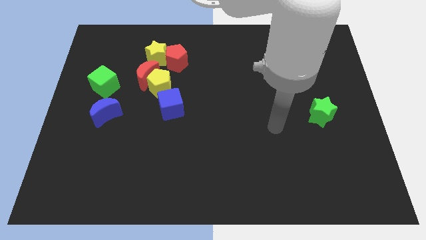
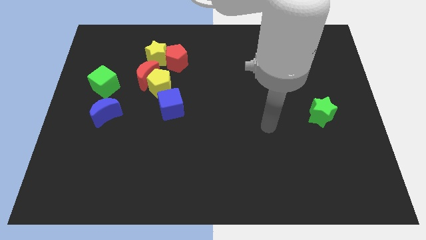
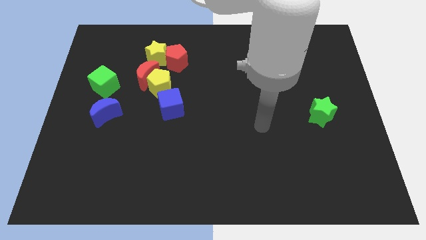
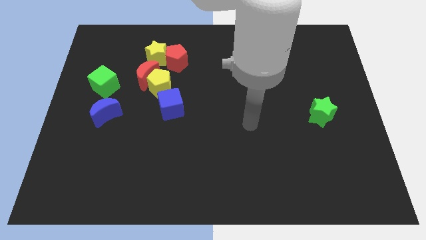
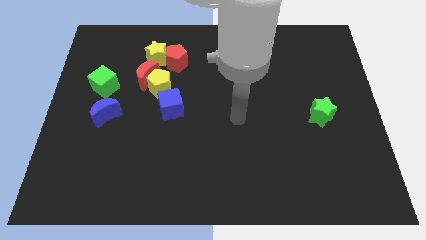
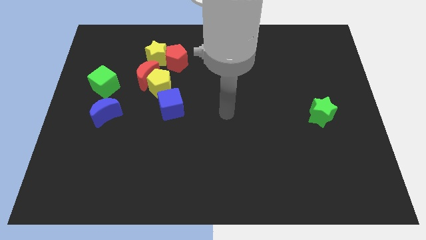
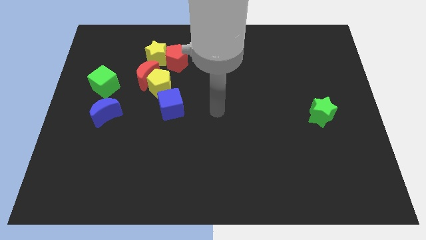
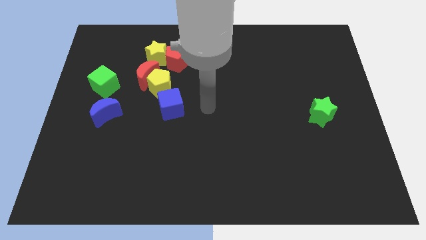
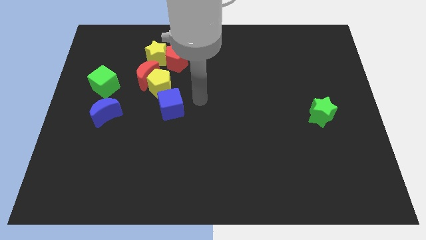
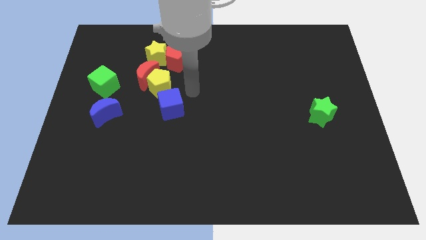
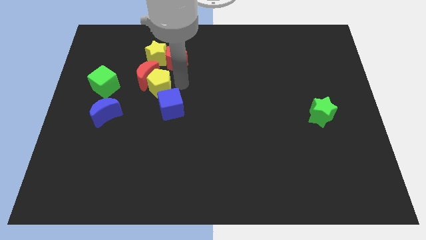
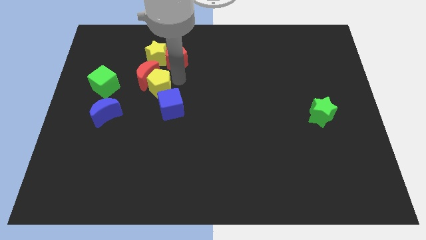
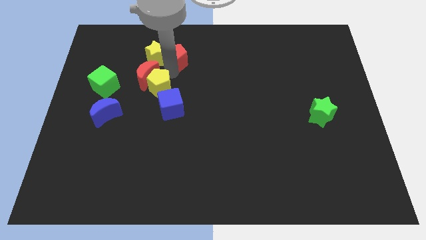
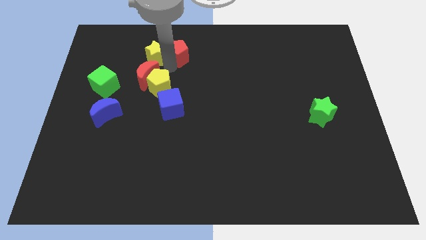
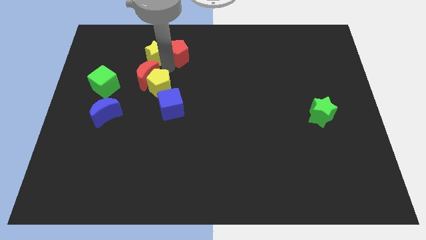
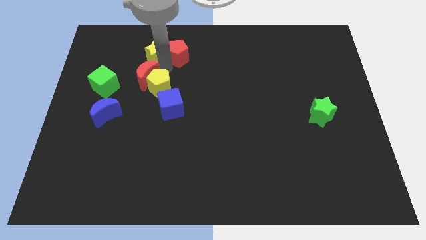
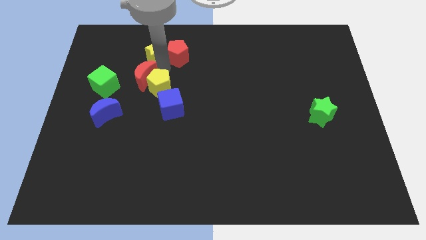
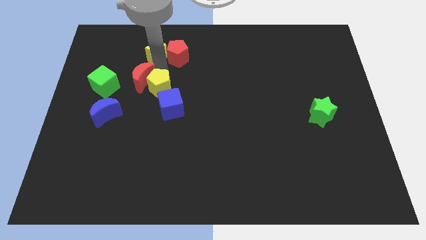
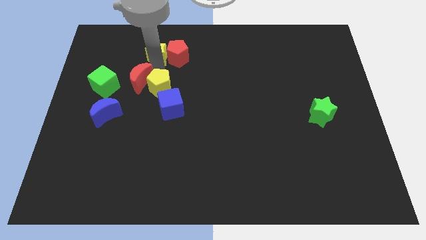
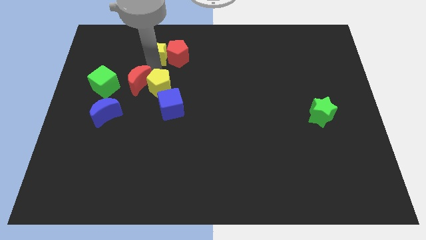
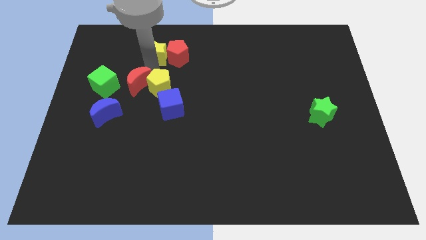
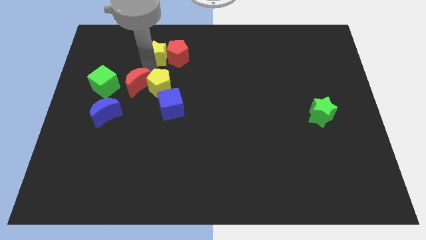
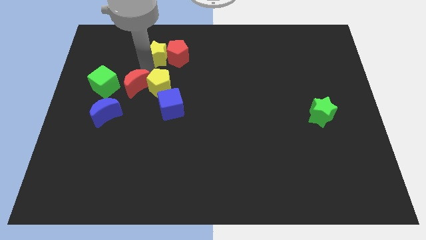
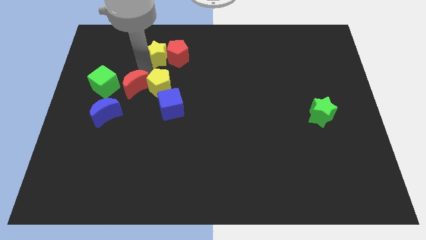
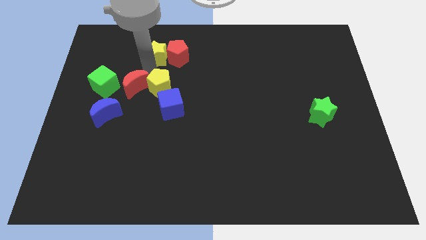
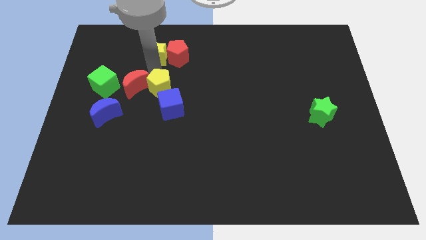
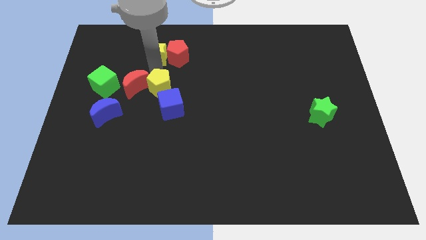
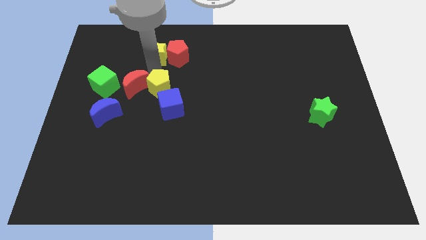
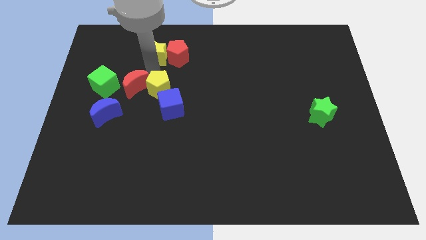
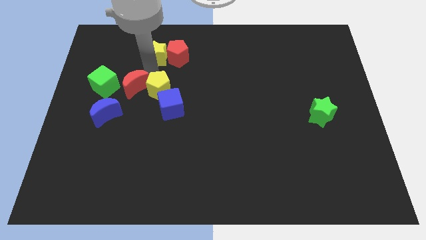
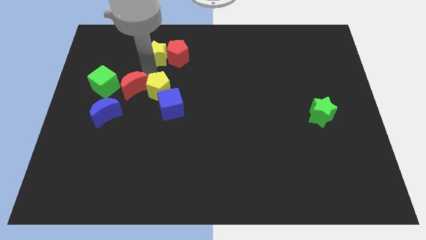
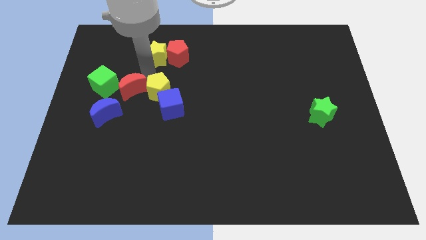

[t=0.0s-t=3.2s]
pull the red moon apart from the clump

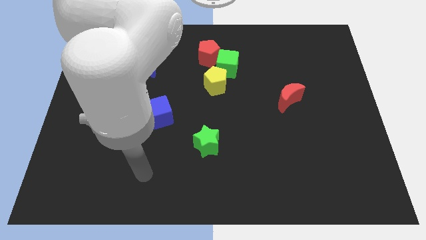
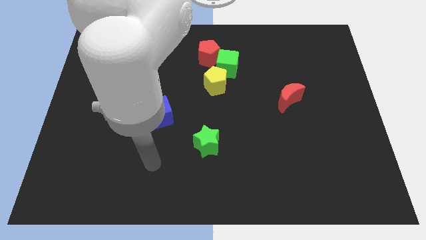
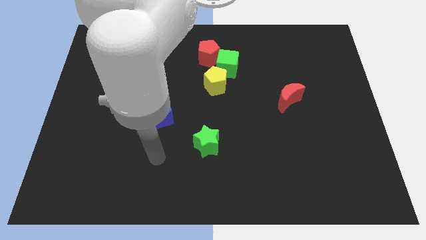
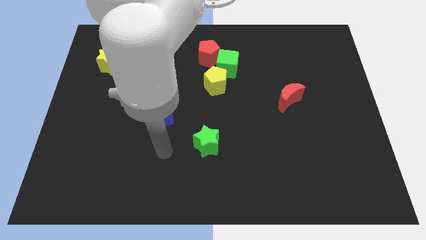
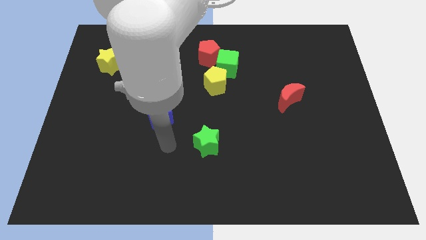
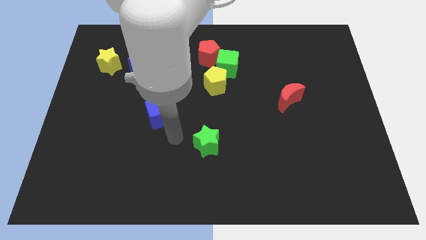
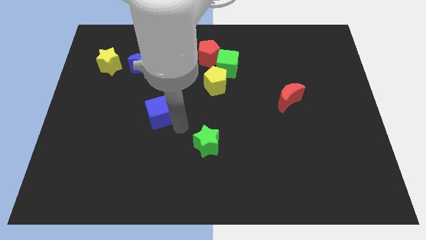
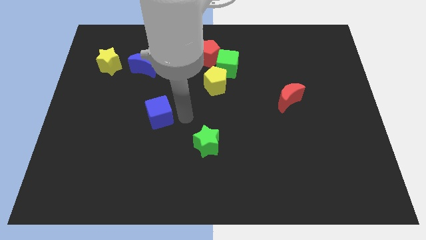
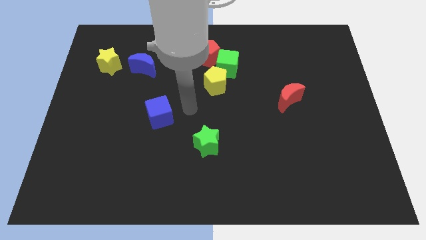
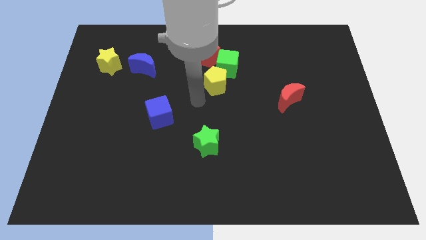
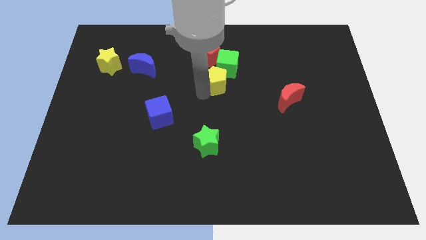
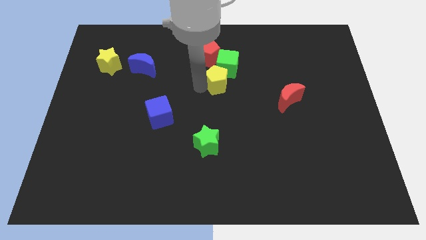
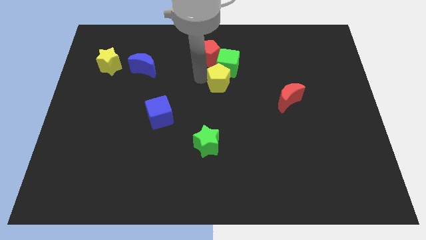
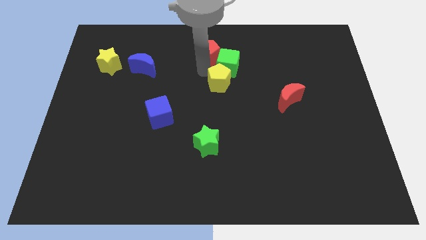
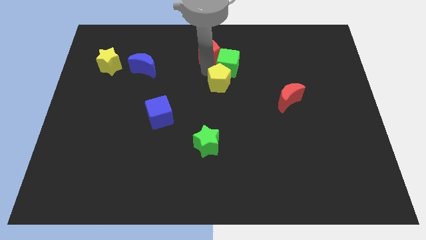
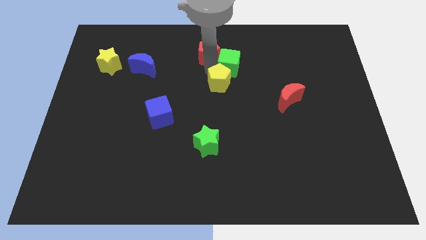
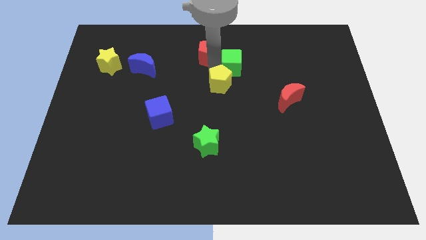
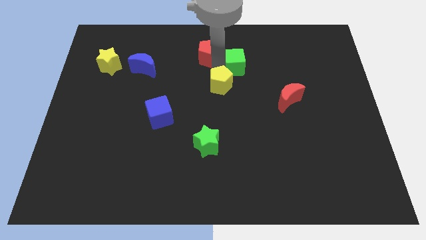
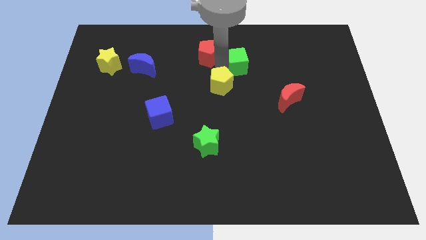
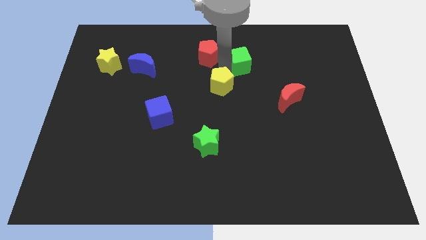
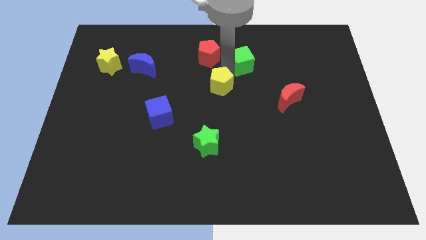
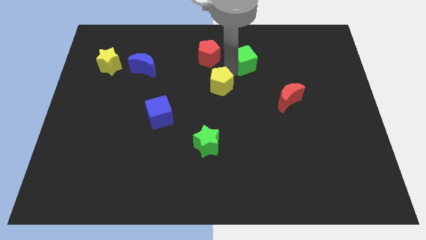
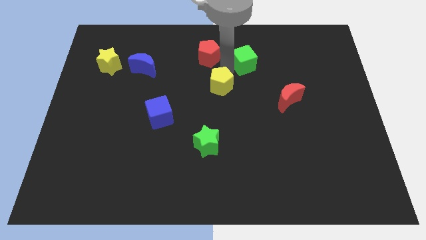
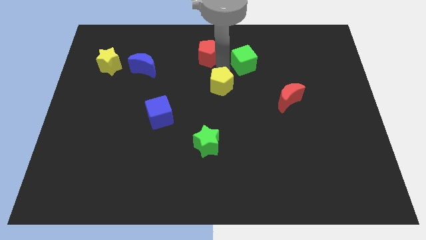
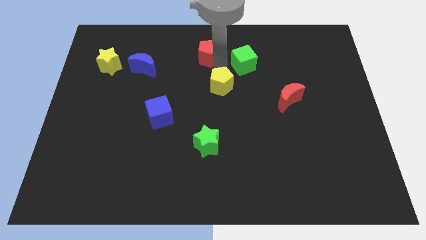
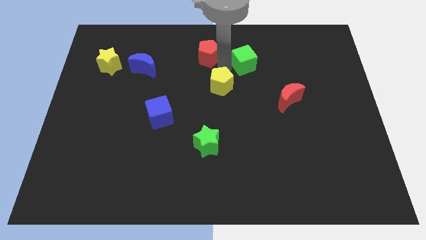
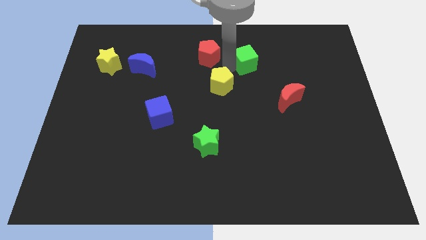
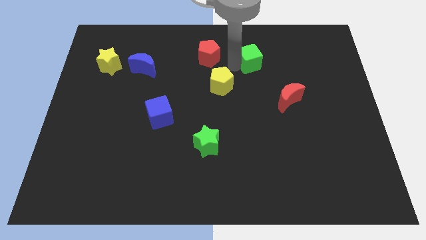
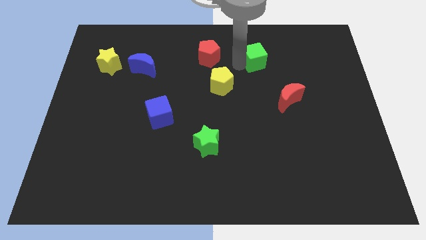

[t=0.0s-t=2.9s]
separate the green cube from the red pentagon and yellow pentagon

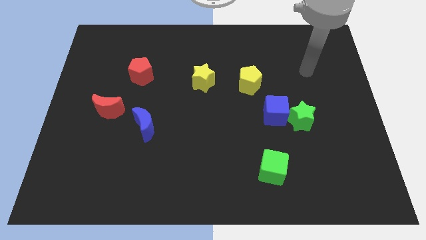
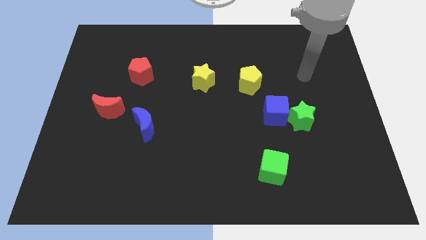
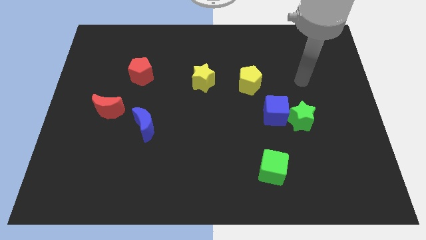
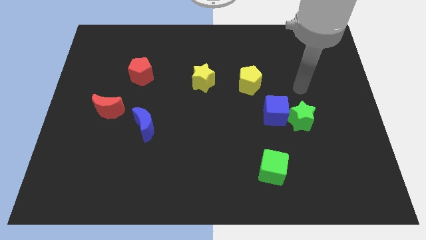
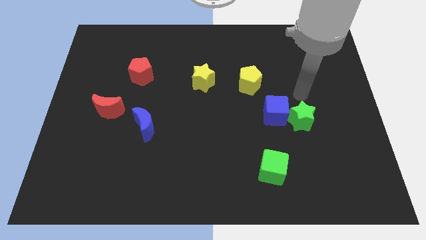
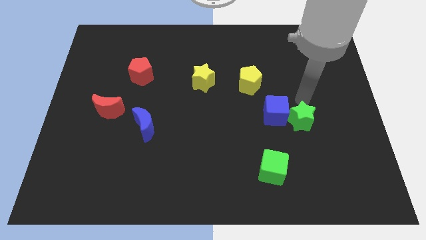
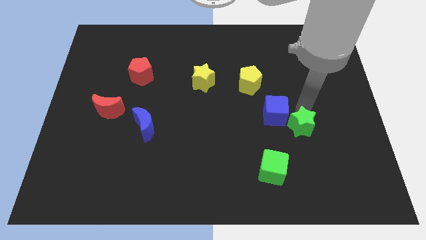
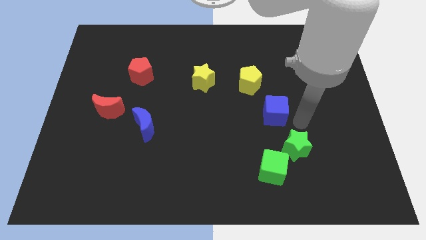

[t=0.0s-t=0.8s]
separate the blue cube from the green star

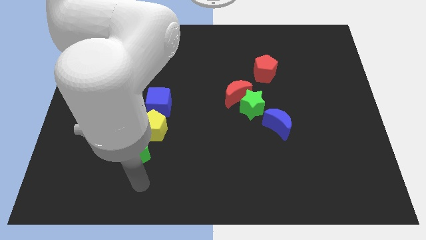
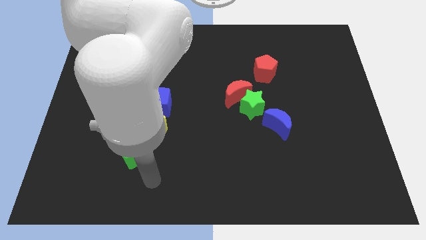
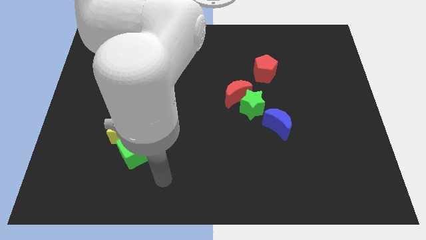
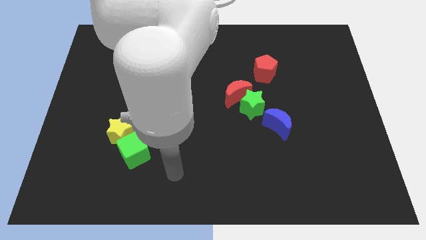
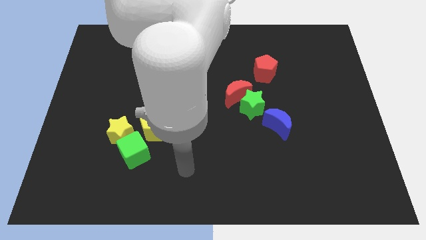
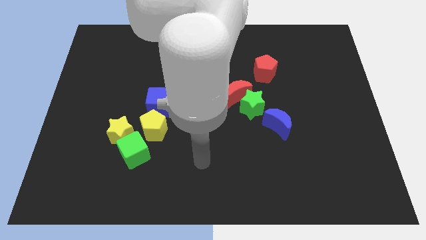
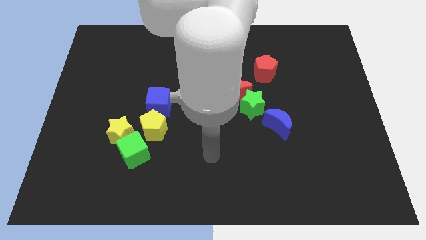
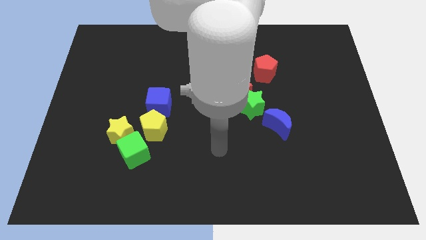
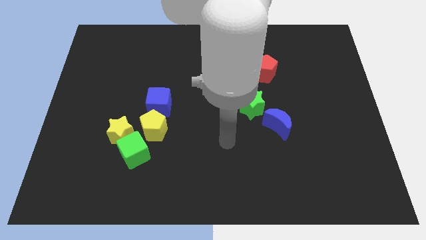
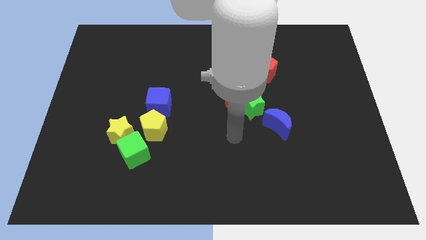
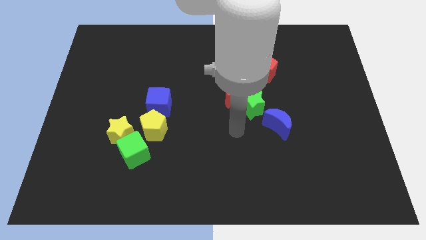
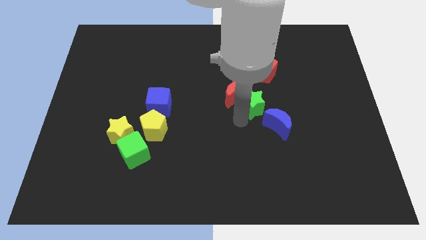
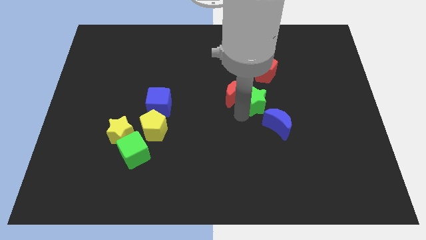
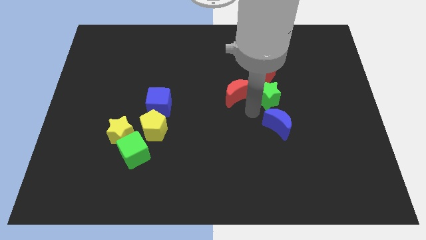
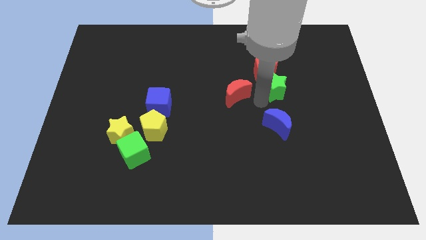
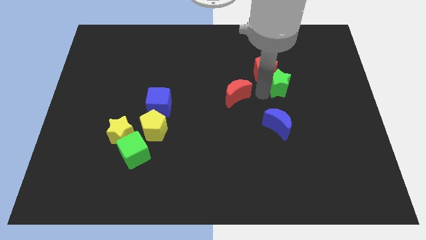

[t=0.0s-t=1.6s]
separate the red moon from the green star

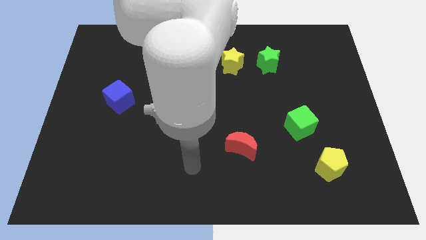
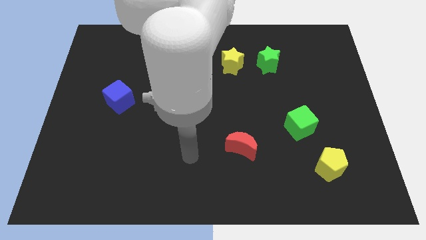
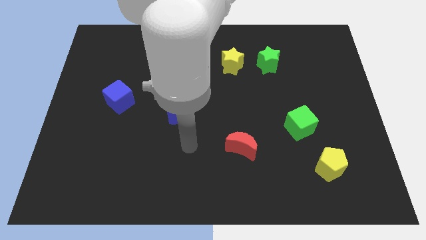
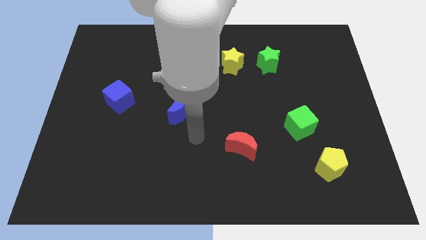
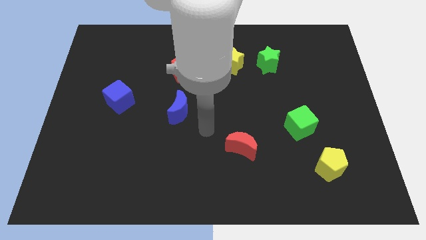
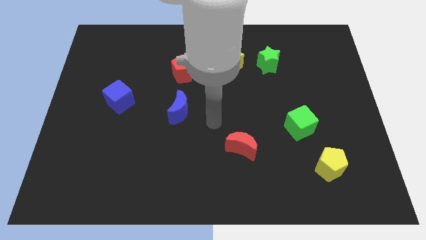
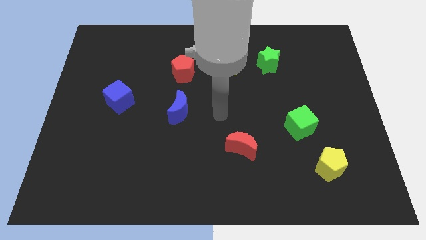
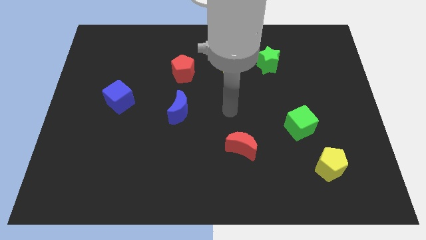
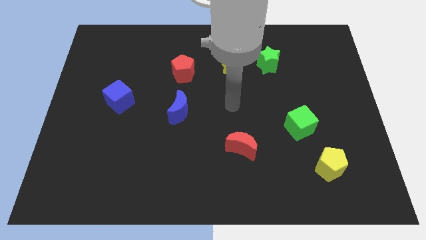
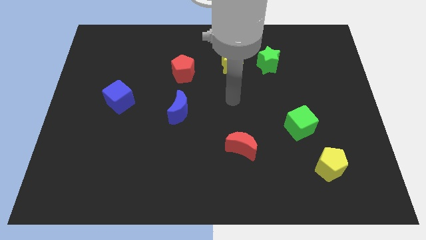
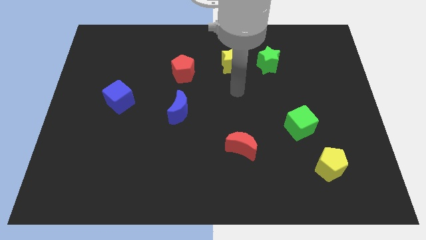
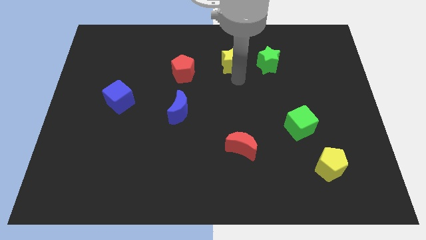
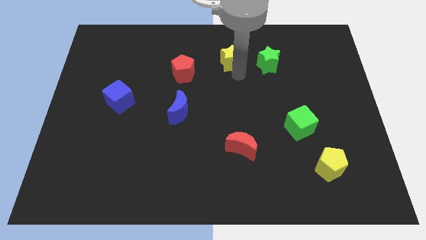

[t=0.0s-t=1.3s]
pull the green star apart from the yellow star
